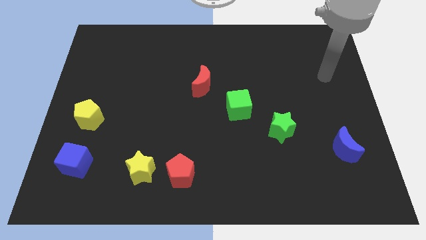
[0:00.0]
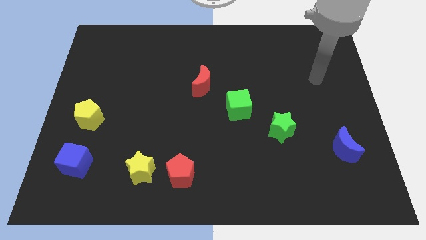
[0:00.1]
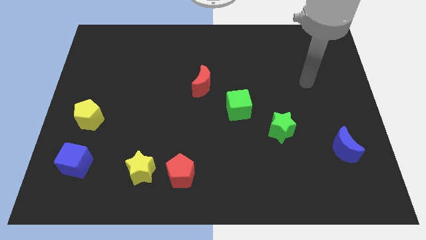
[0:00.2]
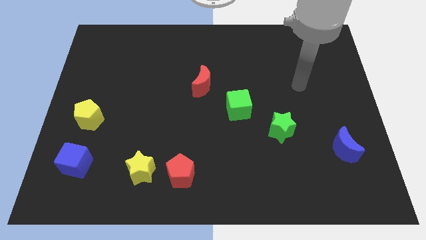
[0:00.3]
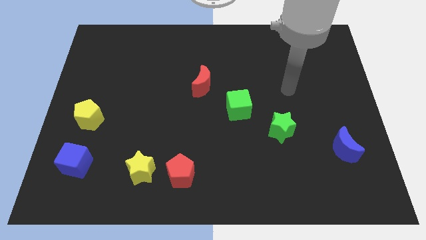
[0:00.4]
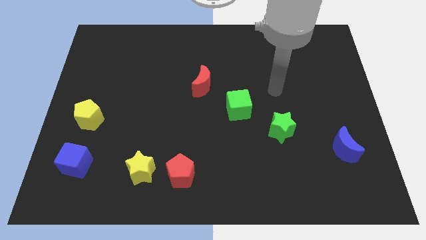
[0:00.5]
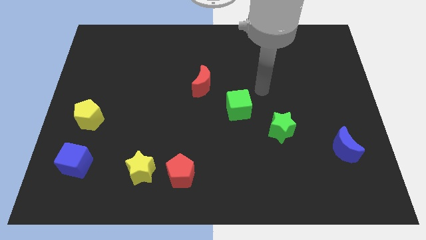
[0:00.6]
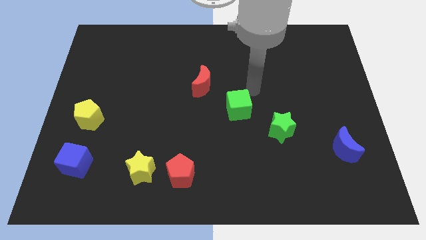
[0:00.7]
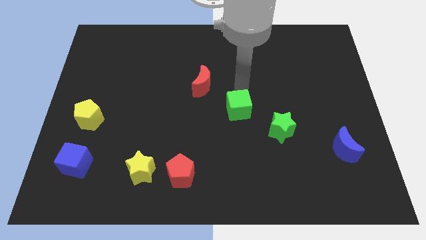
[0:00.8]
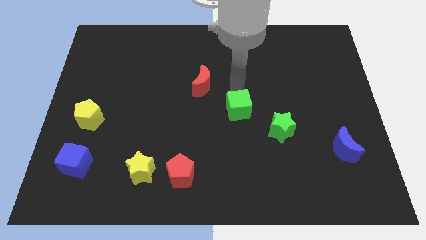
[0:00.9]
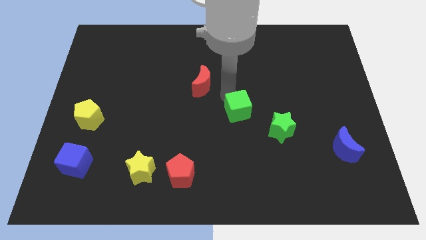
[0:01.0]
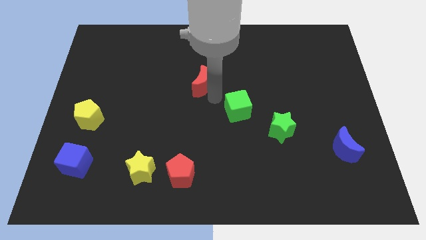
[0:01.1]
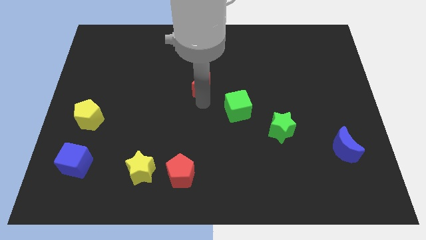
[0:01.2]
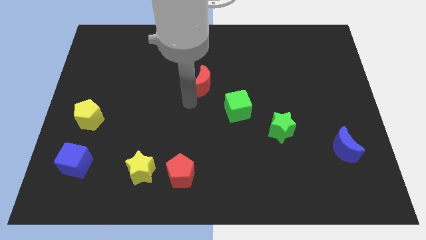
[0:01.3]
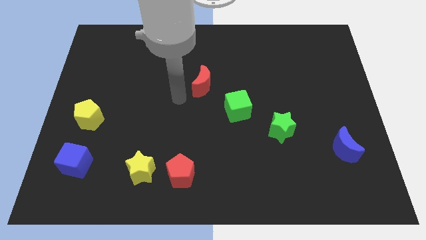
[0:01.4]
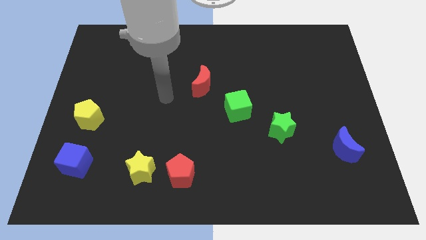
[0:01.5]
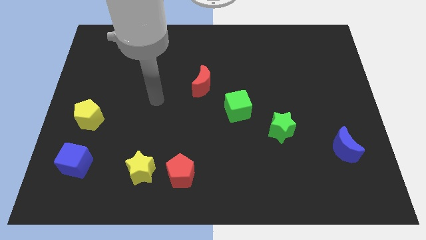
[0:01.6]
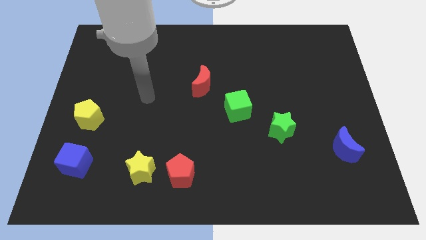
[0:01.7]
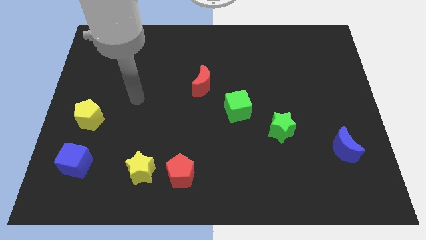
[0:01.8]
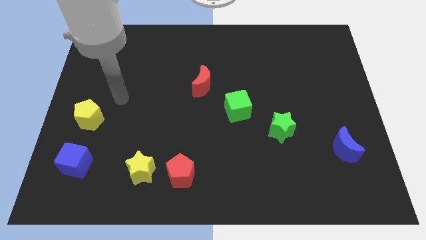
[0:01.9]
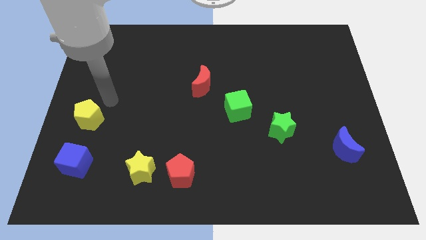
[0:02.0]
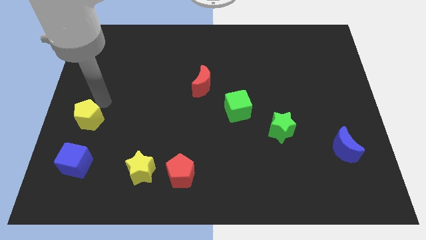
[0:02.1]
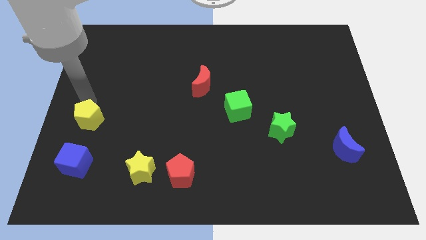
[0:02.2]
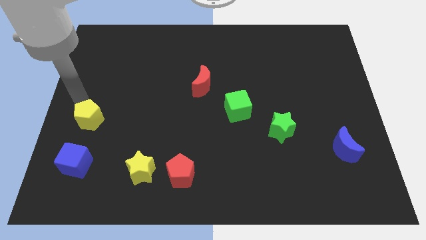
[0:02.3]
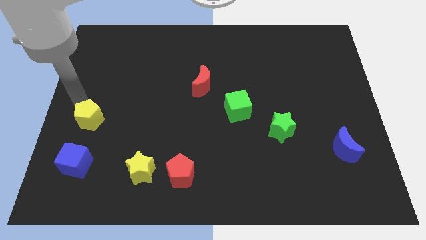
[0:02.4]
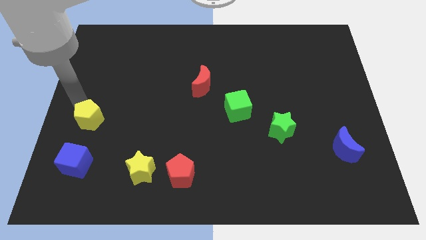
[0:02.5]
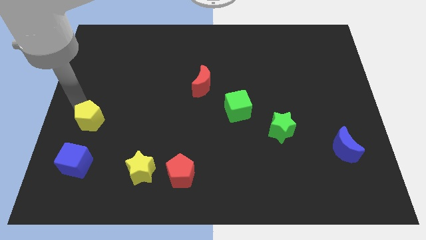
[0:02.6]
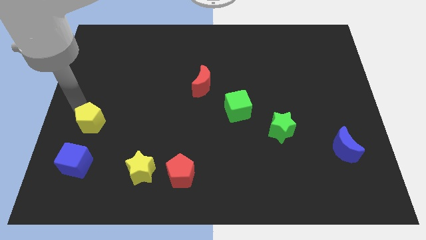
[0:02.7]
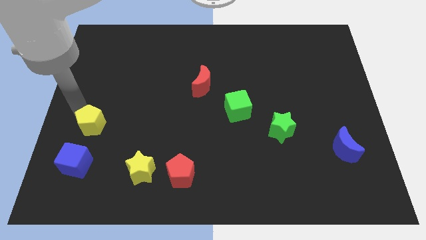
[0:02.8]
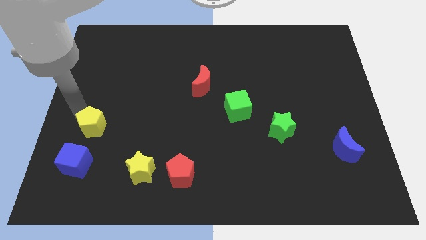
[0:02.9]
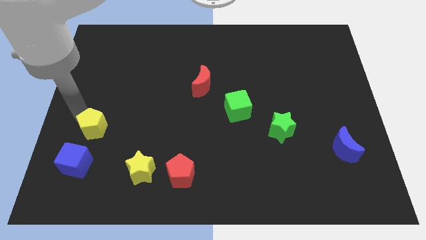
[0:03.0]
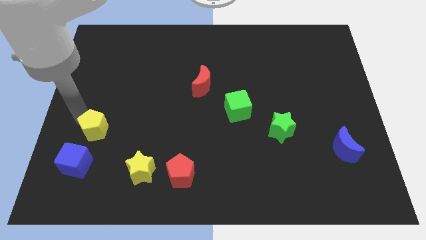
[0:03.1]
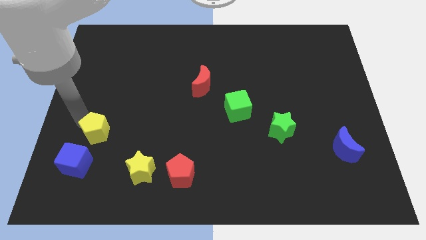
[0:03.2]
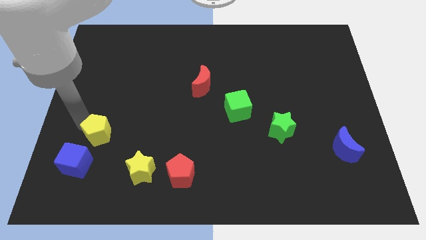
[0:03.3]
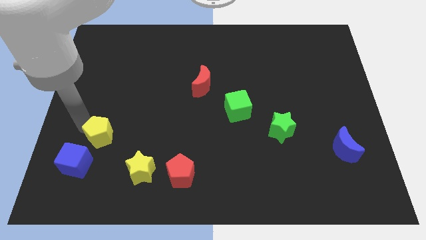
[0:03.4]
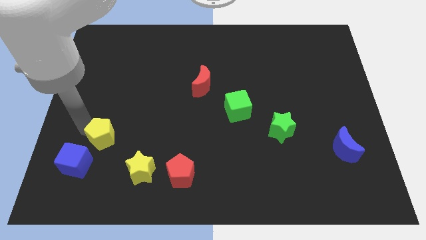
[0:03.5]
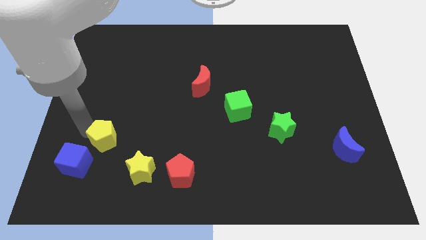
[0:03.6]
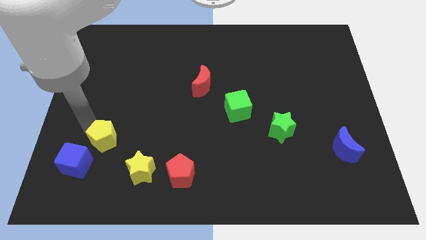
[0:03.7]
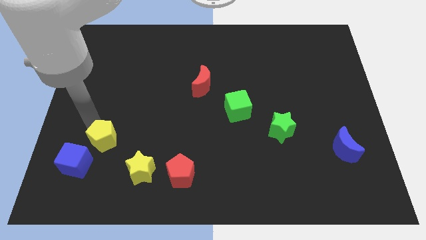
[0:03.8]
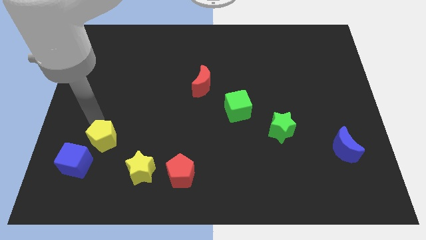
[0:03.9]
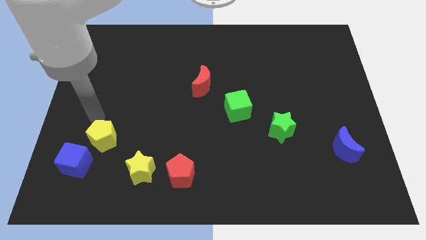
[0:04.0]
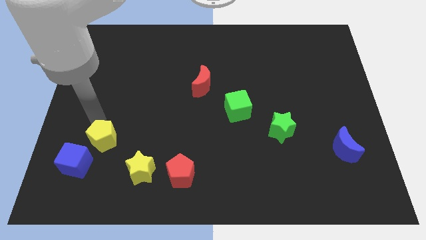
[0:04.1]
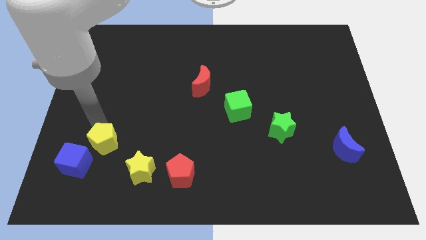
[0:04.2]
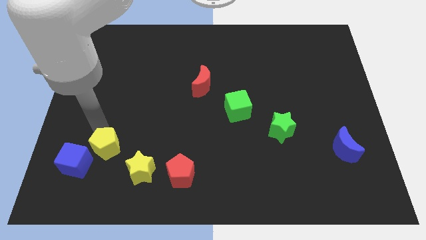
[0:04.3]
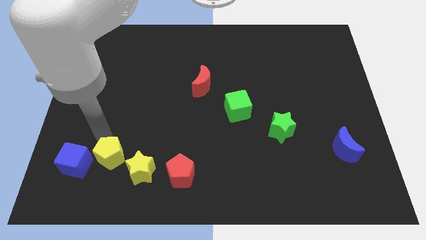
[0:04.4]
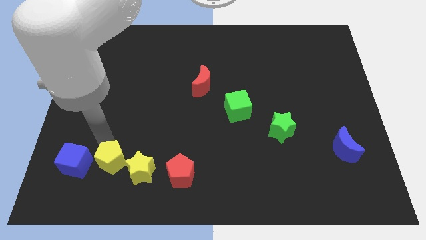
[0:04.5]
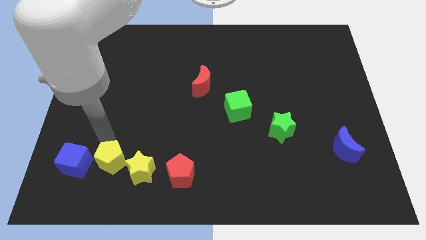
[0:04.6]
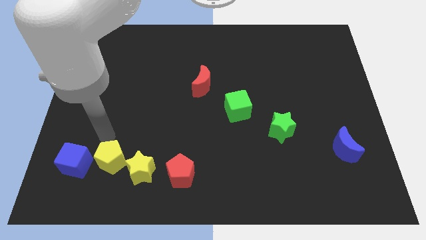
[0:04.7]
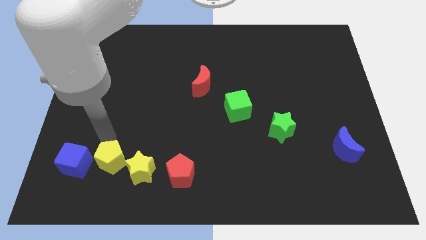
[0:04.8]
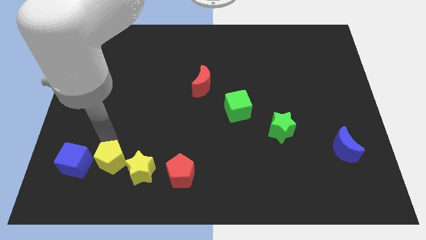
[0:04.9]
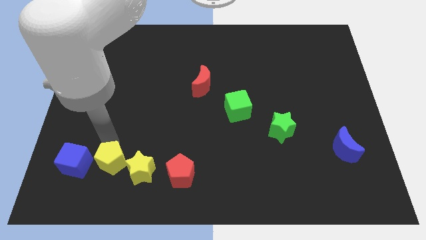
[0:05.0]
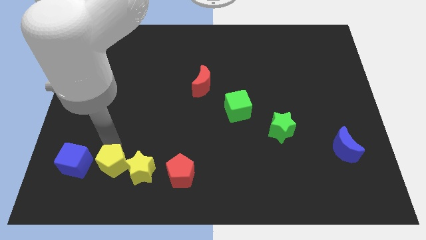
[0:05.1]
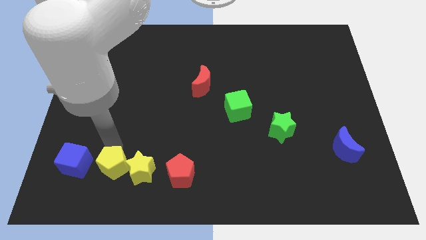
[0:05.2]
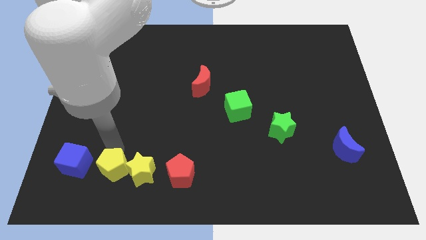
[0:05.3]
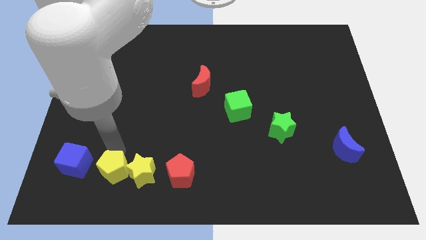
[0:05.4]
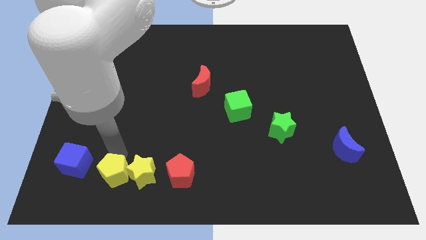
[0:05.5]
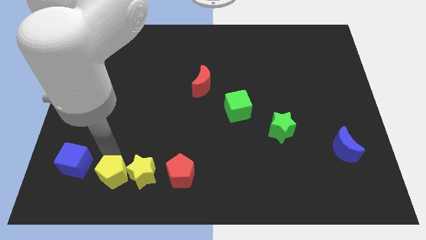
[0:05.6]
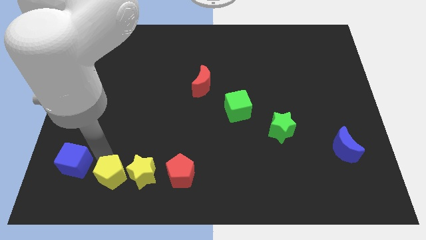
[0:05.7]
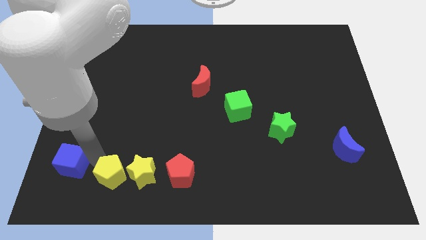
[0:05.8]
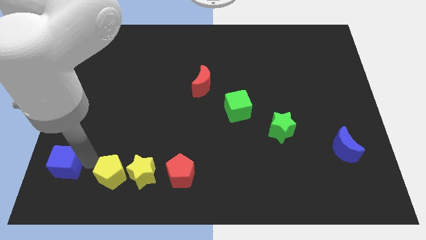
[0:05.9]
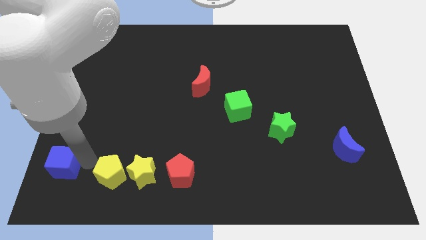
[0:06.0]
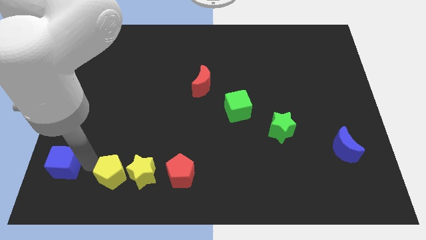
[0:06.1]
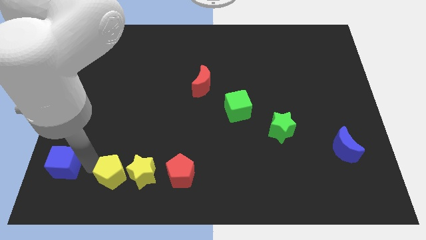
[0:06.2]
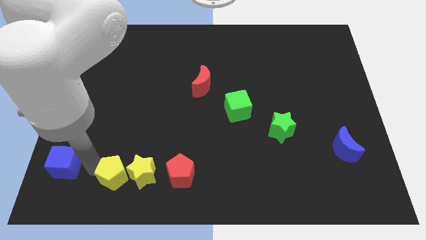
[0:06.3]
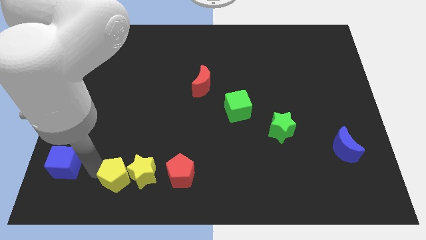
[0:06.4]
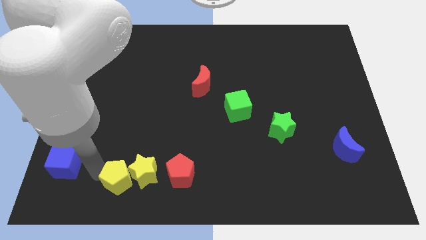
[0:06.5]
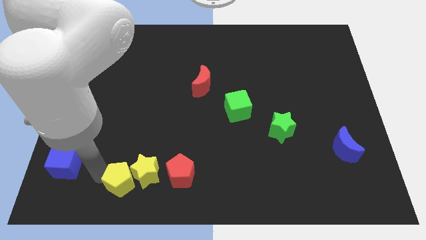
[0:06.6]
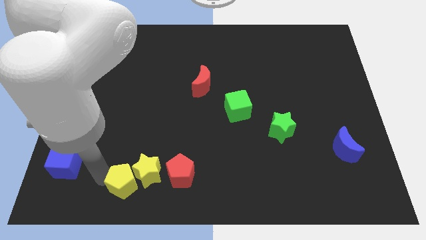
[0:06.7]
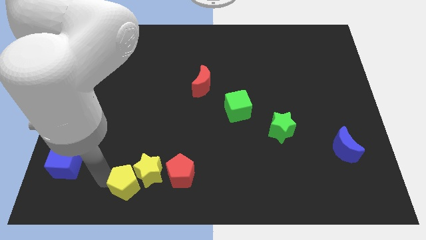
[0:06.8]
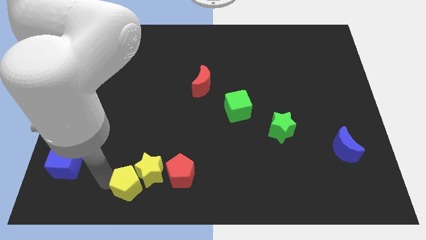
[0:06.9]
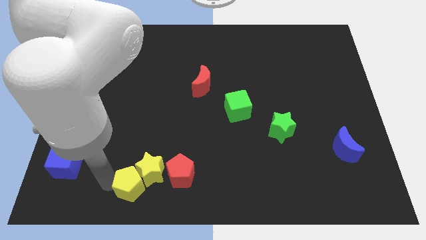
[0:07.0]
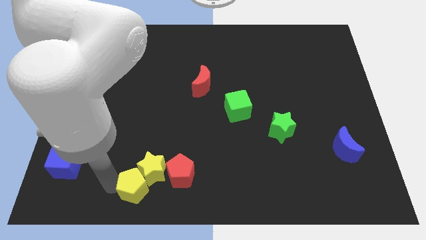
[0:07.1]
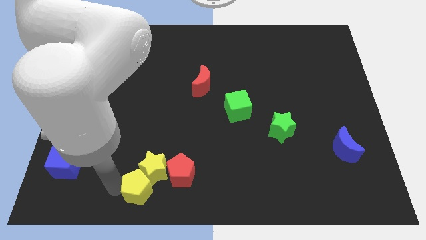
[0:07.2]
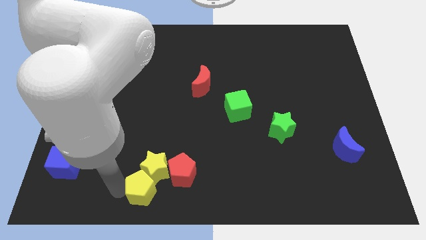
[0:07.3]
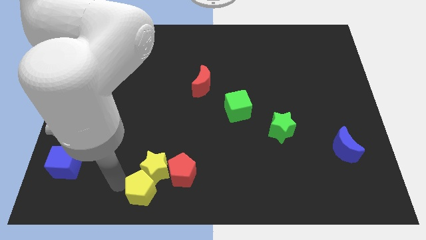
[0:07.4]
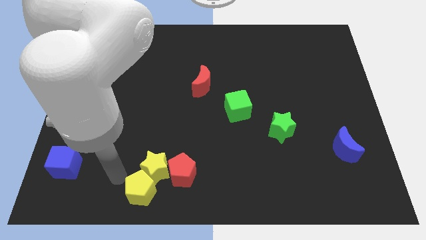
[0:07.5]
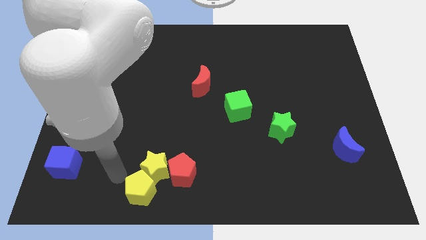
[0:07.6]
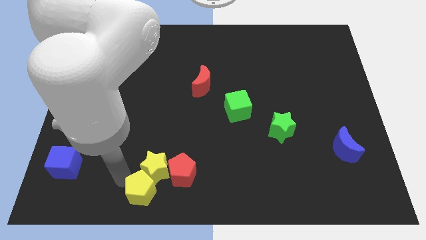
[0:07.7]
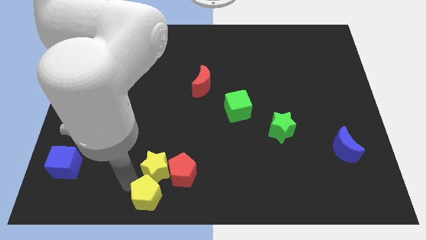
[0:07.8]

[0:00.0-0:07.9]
put the yellow pentagon to the bottom side
